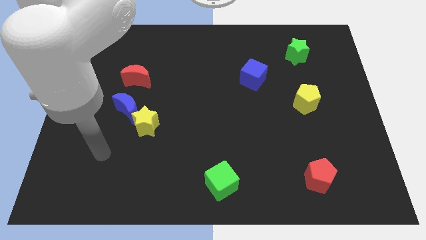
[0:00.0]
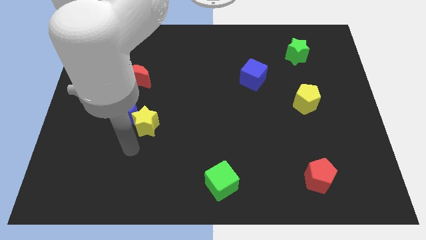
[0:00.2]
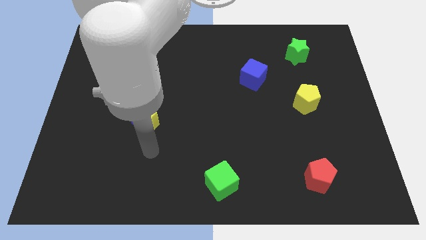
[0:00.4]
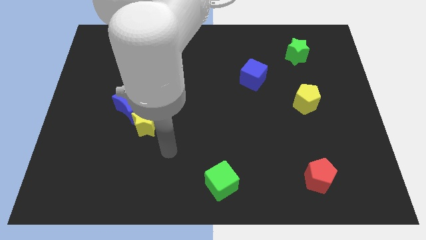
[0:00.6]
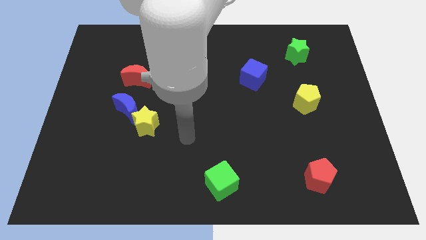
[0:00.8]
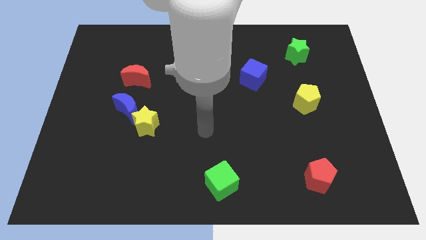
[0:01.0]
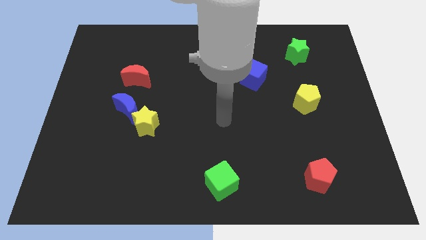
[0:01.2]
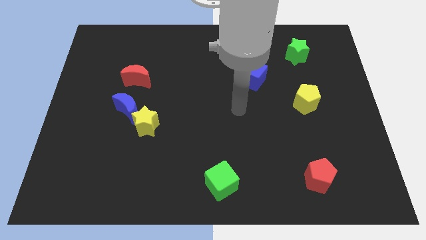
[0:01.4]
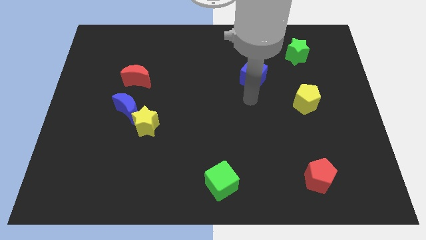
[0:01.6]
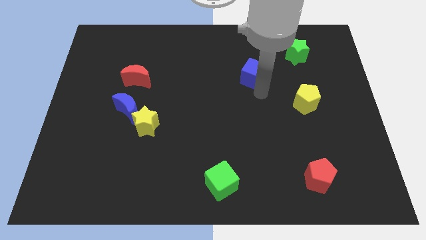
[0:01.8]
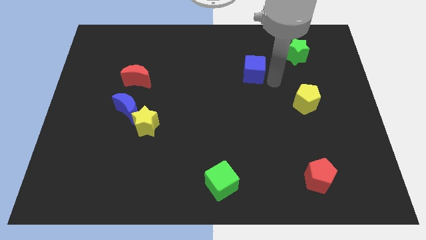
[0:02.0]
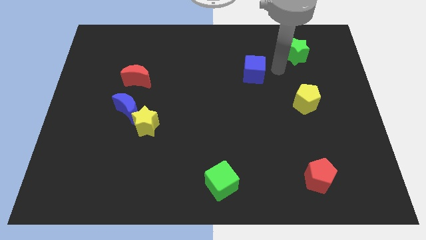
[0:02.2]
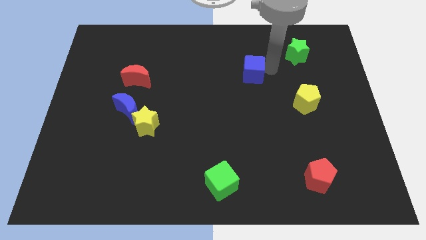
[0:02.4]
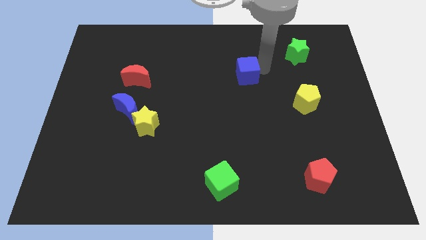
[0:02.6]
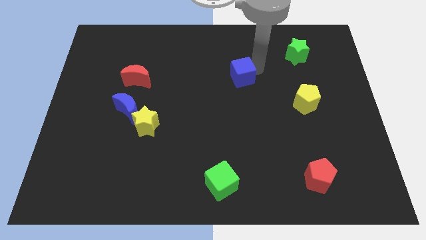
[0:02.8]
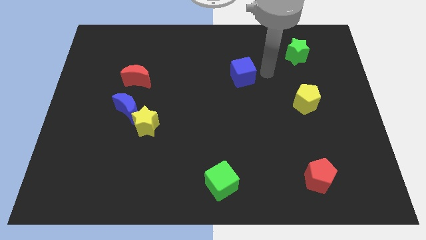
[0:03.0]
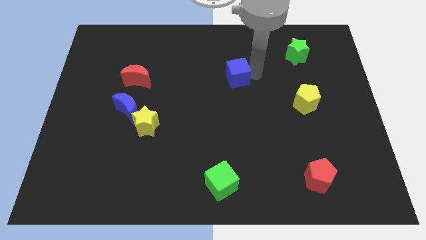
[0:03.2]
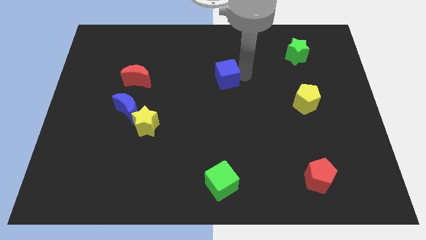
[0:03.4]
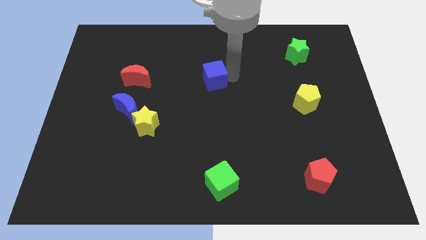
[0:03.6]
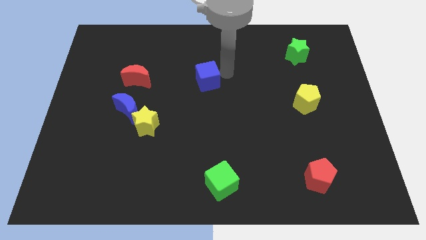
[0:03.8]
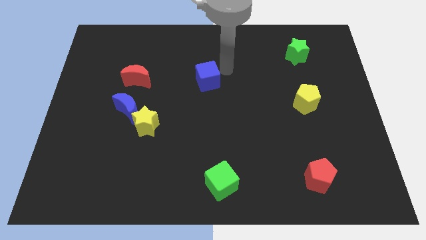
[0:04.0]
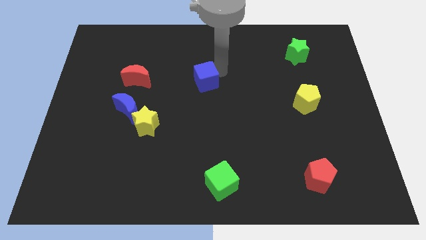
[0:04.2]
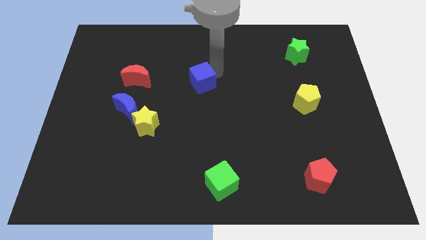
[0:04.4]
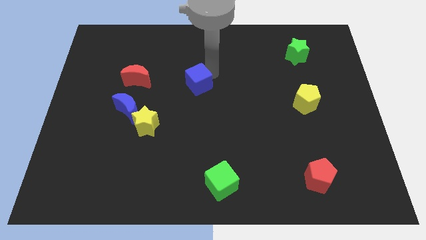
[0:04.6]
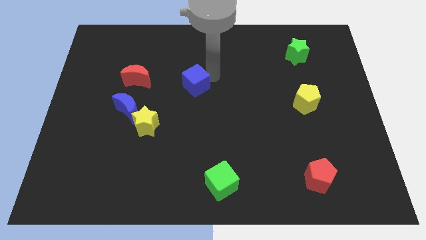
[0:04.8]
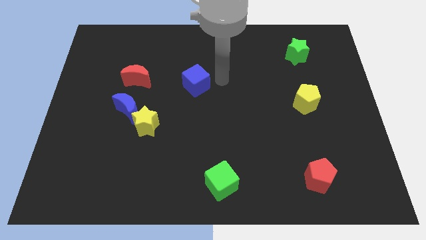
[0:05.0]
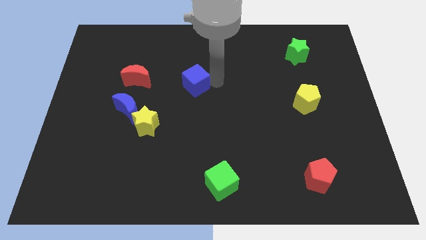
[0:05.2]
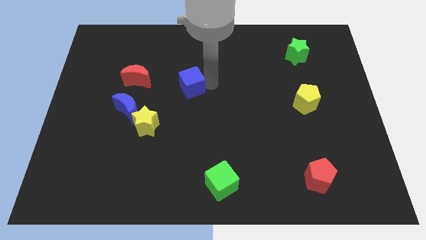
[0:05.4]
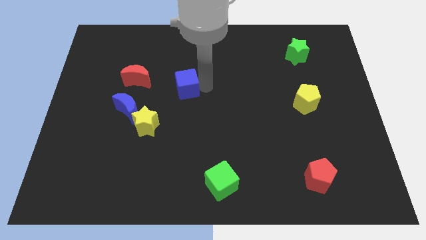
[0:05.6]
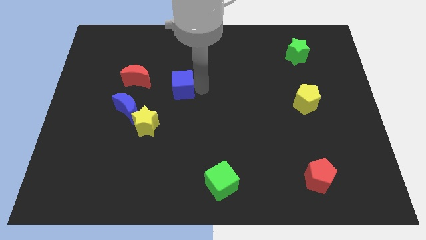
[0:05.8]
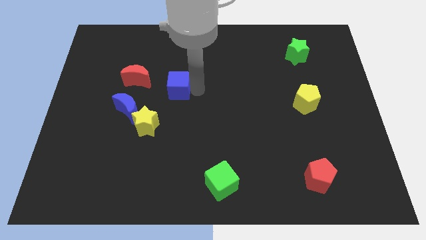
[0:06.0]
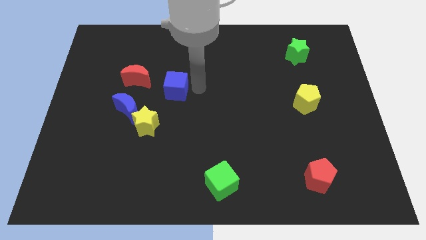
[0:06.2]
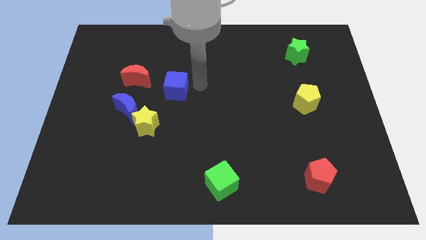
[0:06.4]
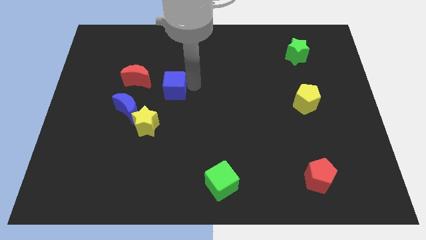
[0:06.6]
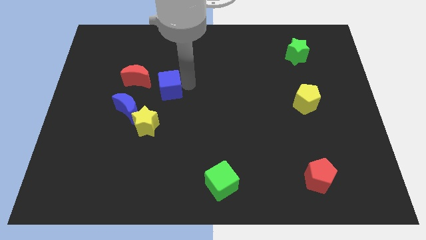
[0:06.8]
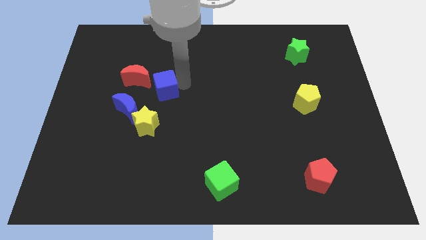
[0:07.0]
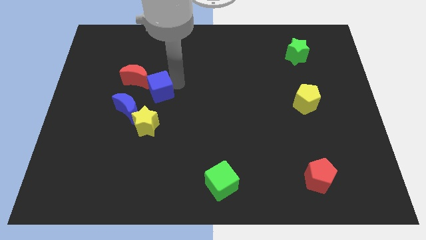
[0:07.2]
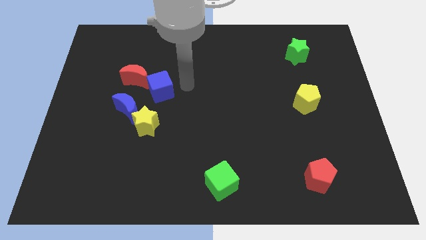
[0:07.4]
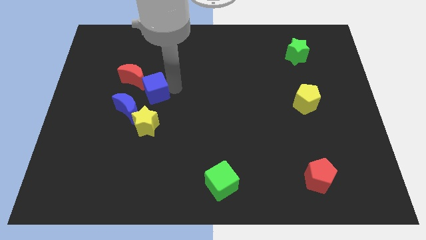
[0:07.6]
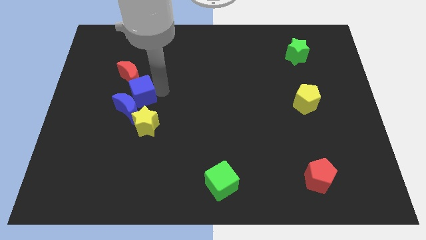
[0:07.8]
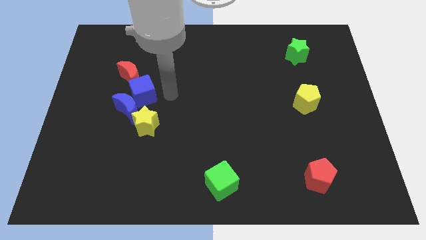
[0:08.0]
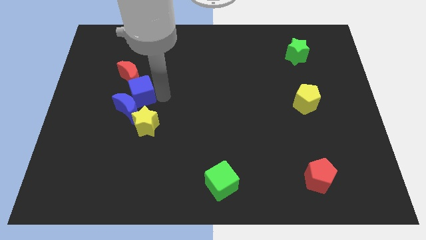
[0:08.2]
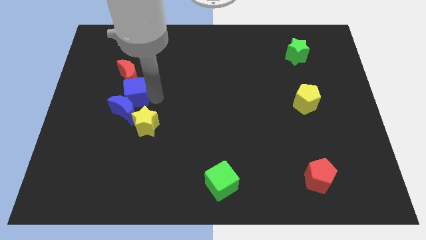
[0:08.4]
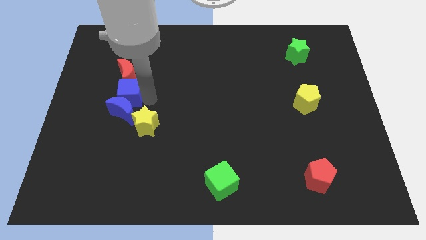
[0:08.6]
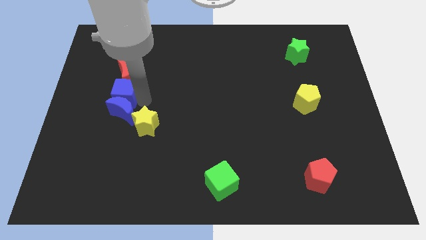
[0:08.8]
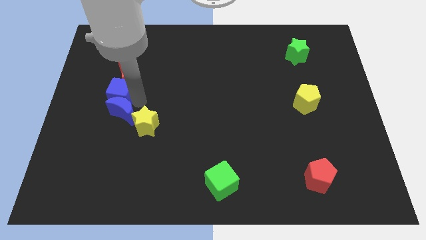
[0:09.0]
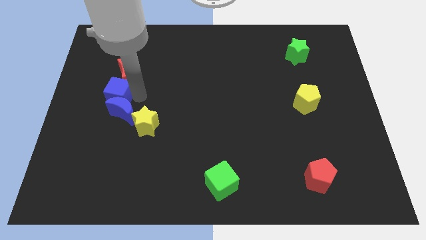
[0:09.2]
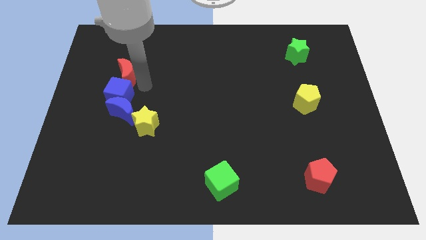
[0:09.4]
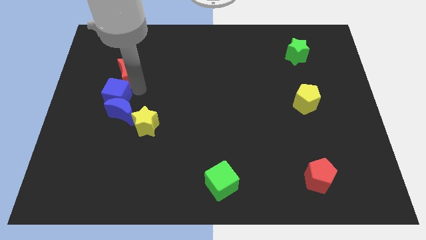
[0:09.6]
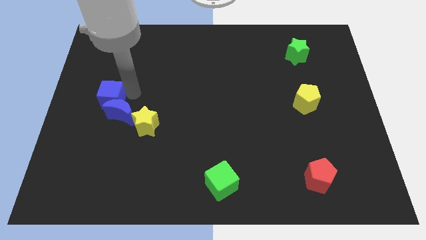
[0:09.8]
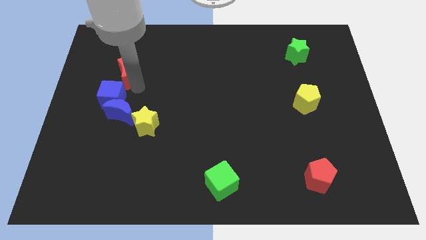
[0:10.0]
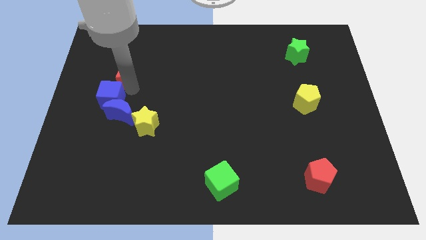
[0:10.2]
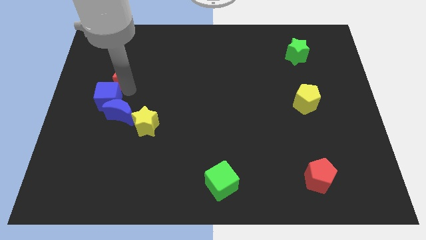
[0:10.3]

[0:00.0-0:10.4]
put the blue cube to the left side

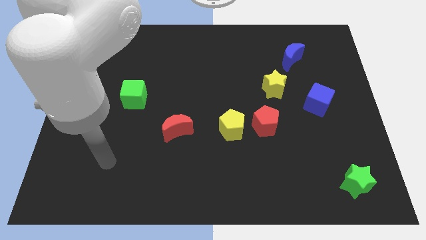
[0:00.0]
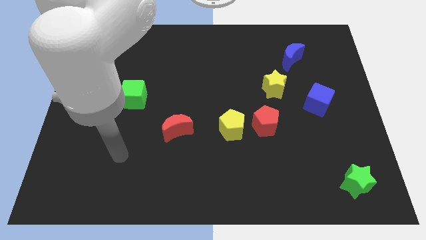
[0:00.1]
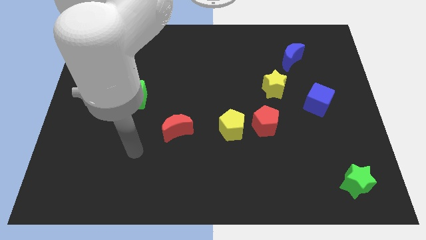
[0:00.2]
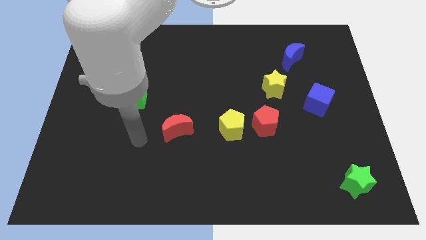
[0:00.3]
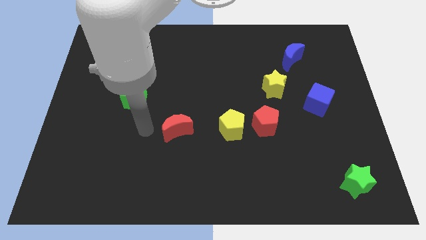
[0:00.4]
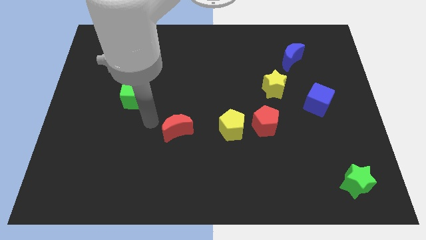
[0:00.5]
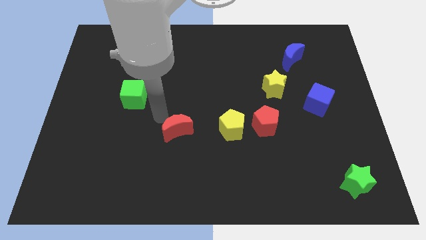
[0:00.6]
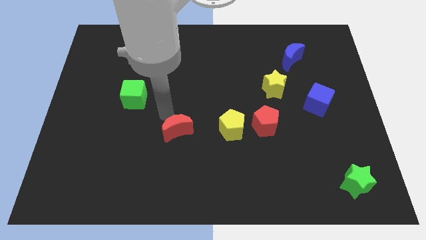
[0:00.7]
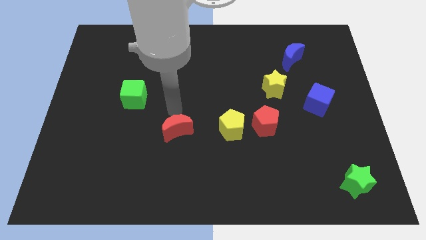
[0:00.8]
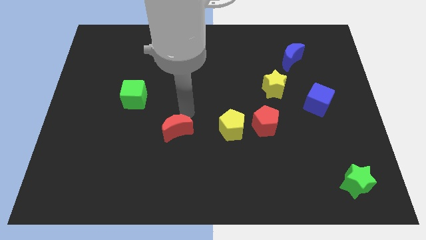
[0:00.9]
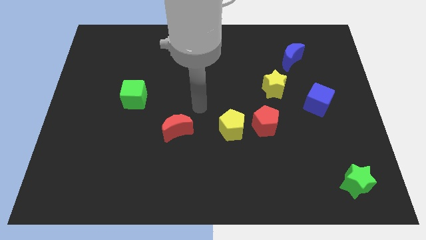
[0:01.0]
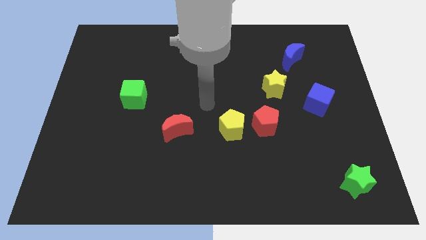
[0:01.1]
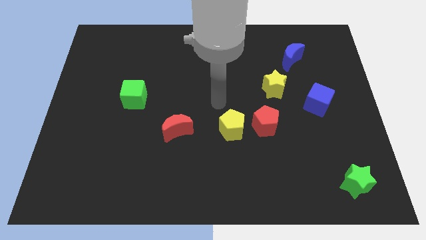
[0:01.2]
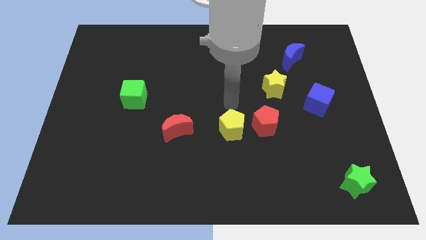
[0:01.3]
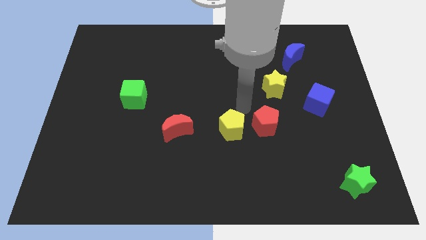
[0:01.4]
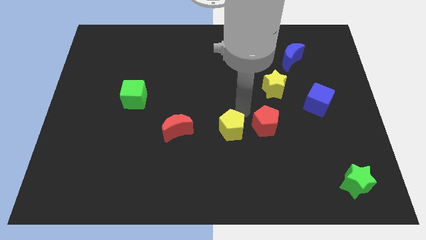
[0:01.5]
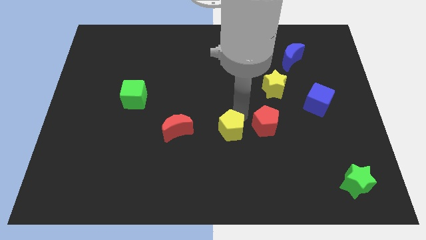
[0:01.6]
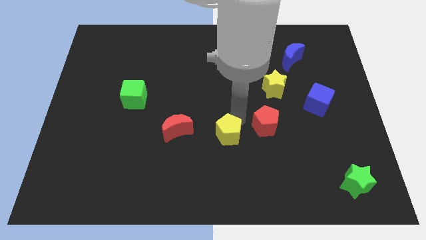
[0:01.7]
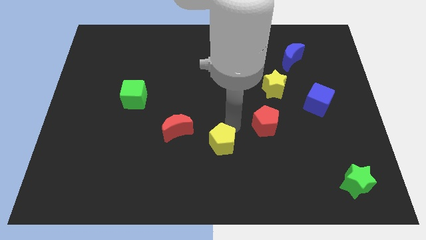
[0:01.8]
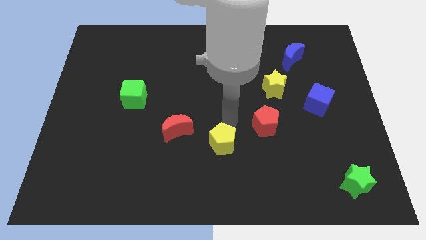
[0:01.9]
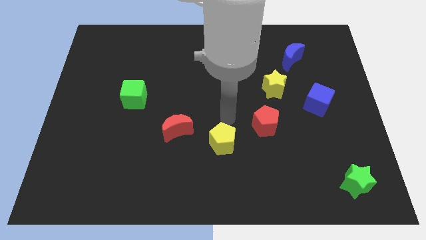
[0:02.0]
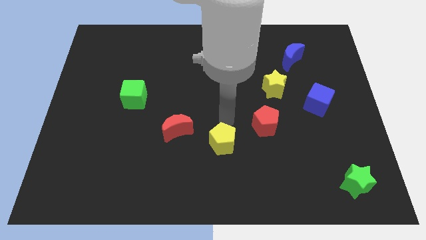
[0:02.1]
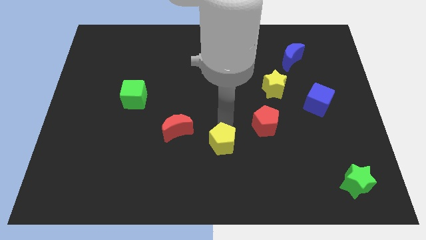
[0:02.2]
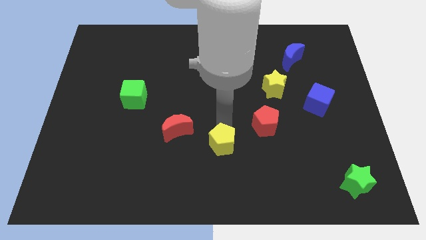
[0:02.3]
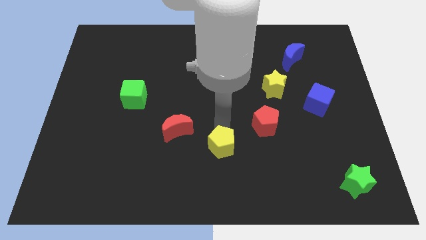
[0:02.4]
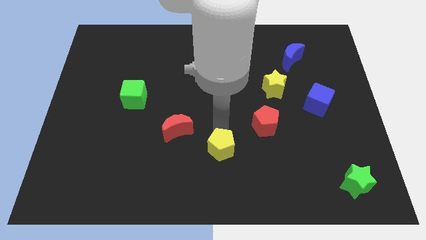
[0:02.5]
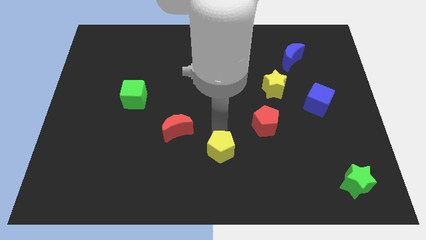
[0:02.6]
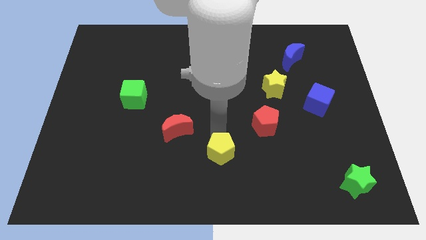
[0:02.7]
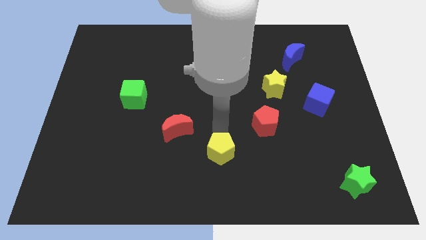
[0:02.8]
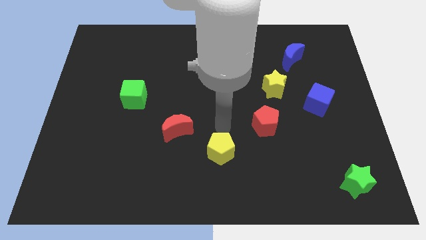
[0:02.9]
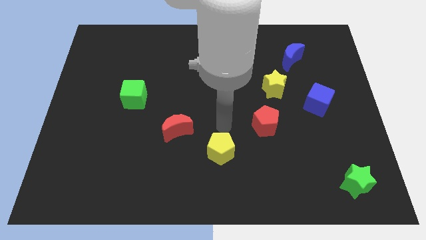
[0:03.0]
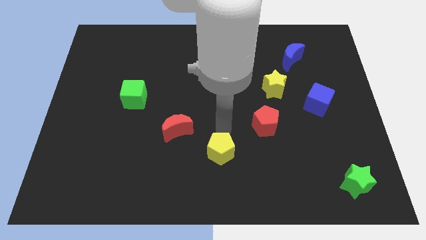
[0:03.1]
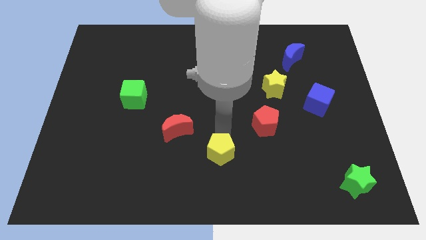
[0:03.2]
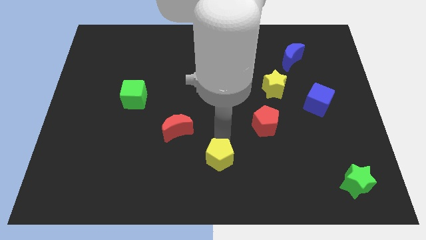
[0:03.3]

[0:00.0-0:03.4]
slide the yellow pentagon to the bottom side

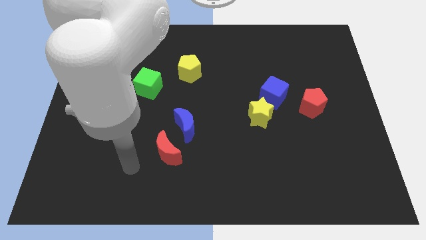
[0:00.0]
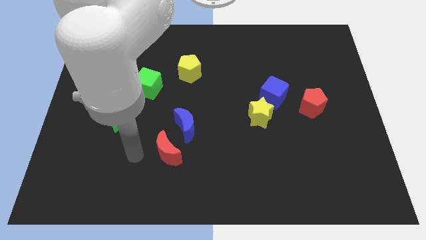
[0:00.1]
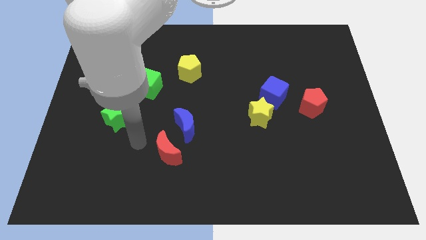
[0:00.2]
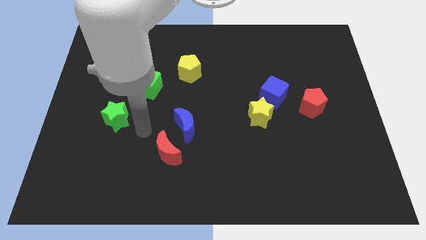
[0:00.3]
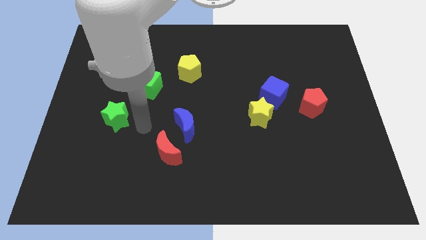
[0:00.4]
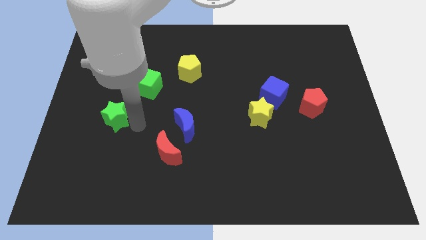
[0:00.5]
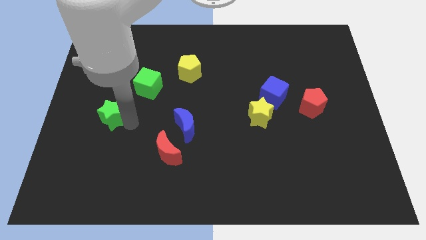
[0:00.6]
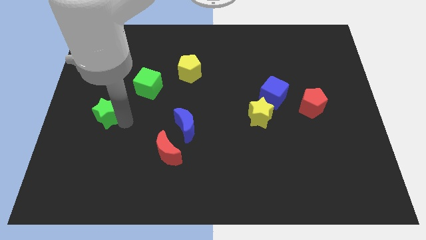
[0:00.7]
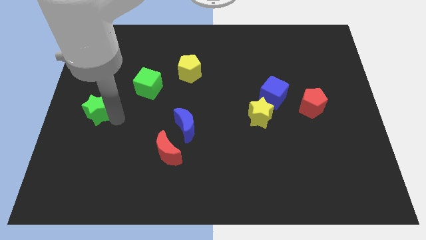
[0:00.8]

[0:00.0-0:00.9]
push the green star to the center left
